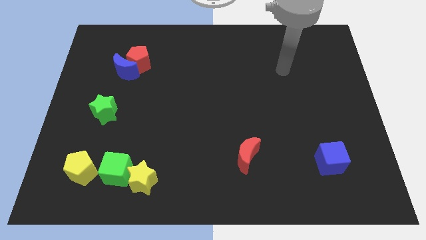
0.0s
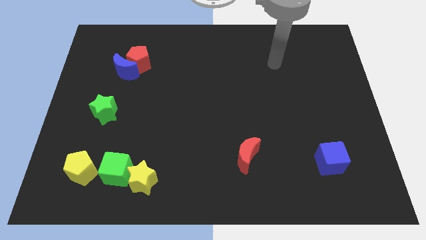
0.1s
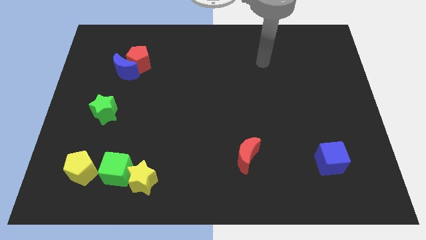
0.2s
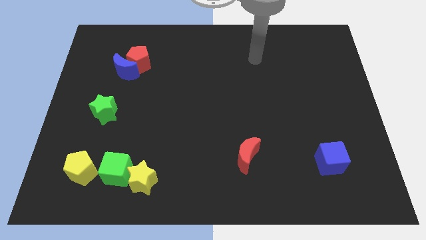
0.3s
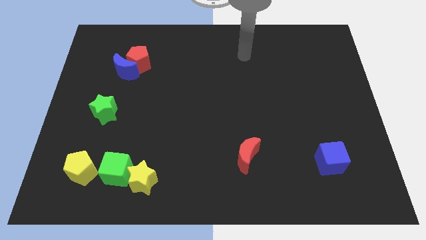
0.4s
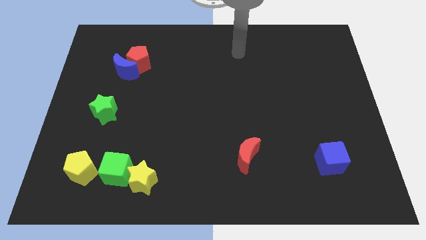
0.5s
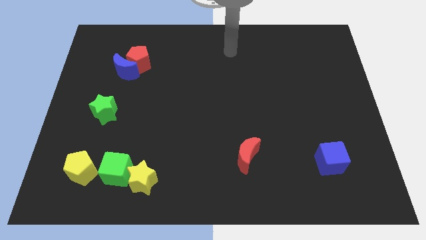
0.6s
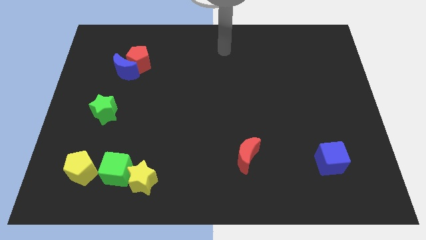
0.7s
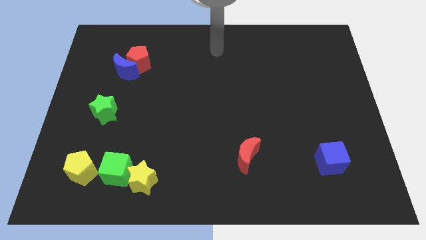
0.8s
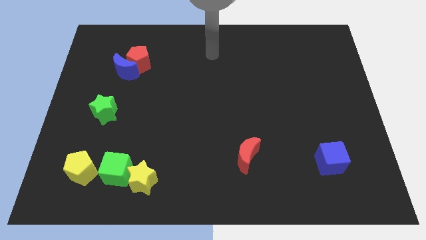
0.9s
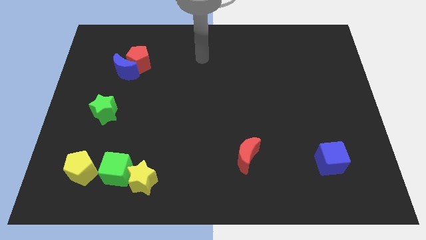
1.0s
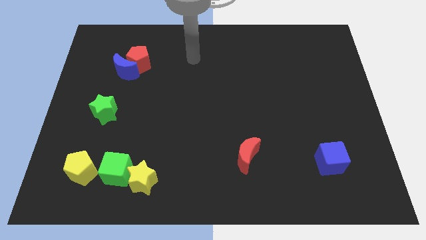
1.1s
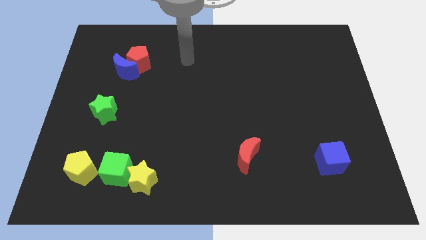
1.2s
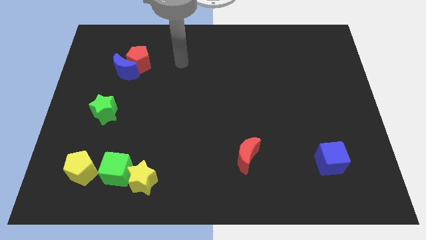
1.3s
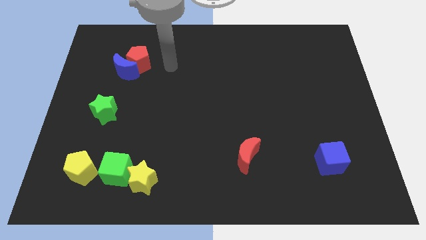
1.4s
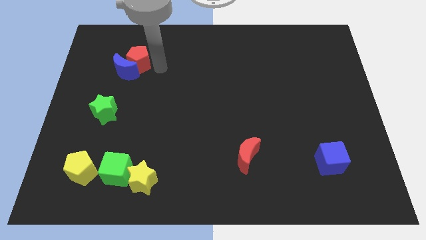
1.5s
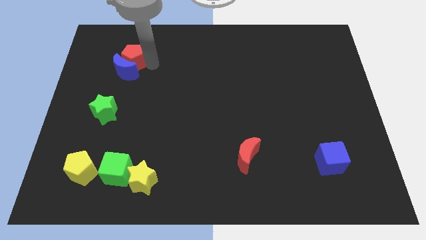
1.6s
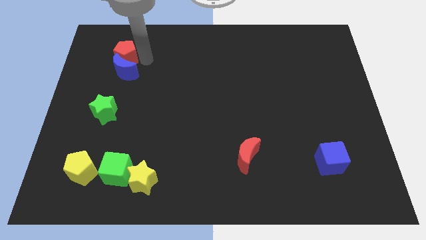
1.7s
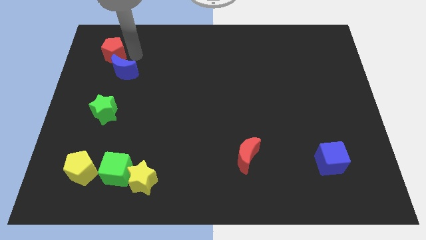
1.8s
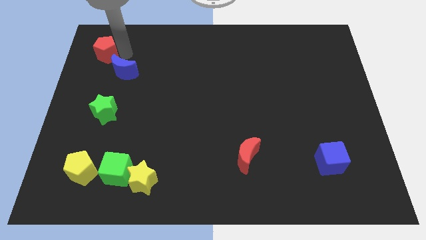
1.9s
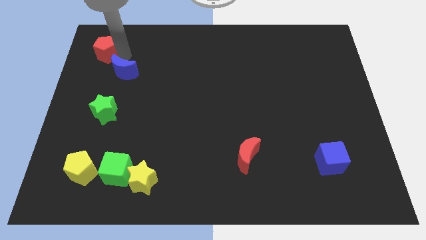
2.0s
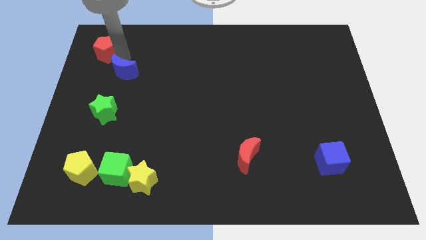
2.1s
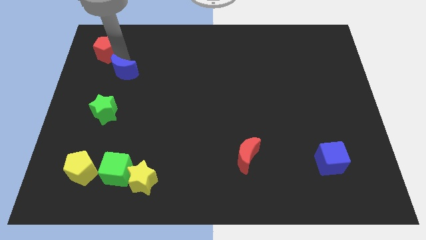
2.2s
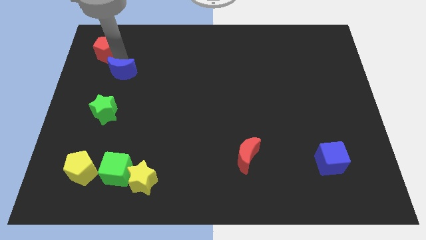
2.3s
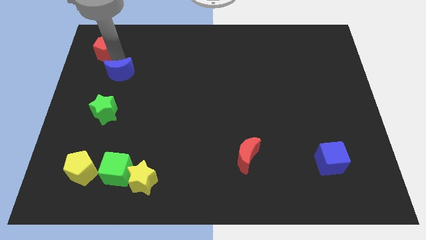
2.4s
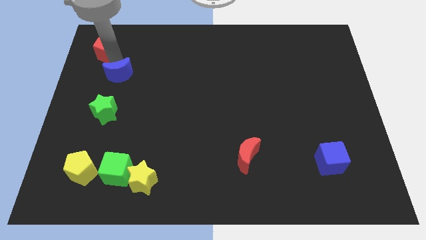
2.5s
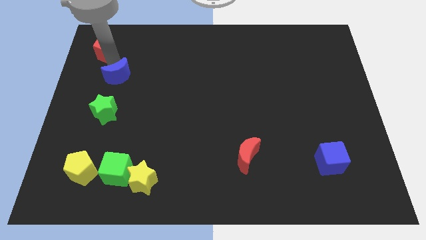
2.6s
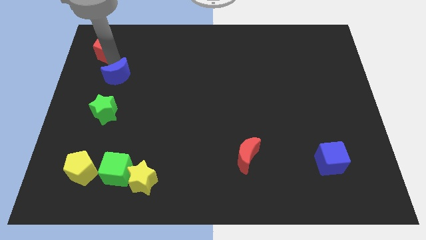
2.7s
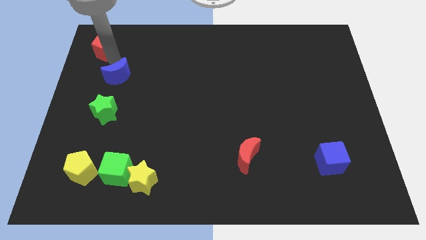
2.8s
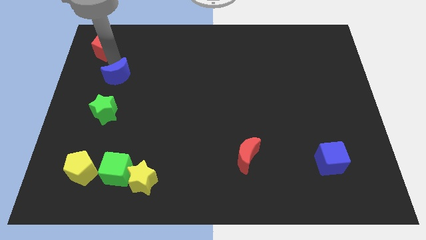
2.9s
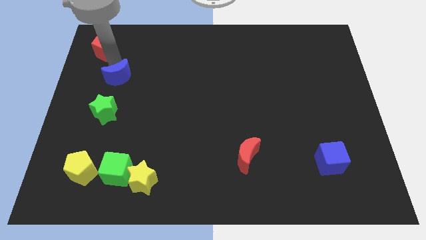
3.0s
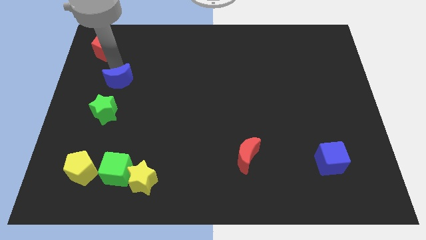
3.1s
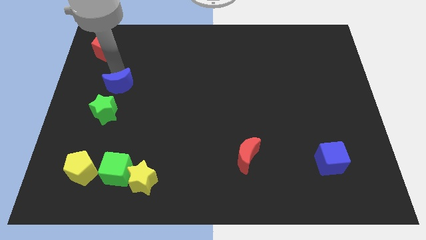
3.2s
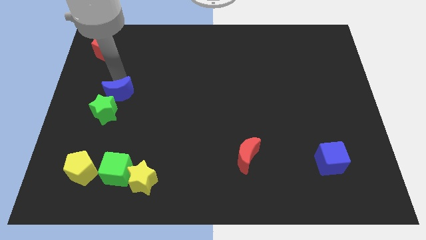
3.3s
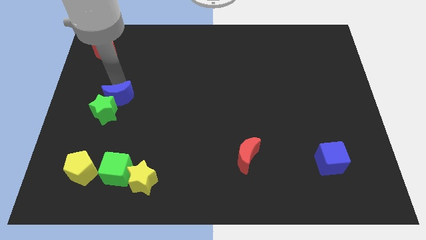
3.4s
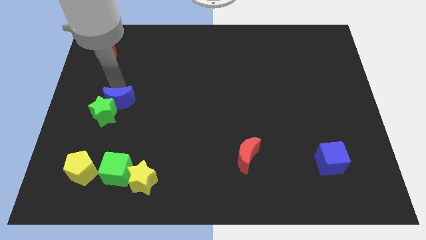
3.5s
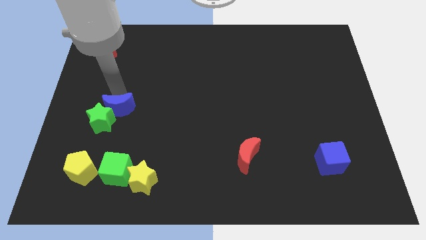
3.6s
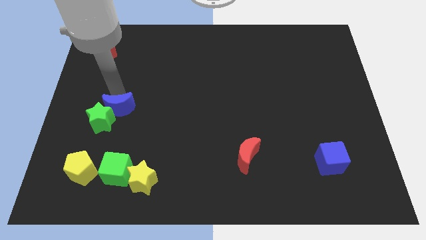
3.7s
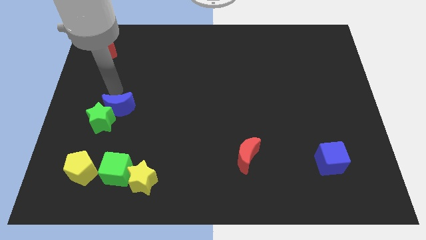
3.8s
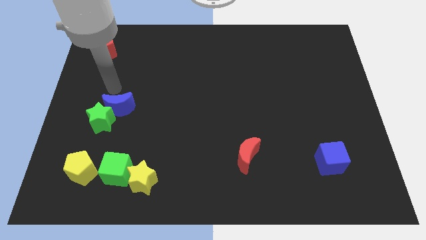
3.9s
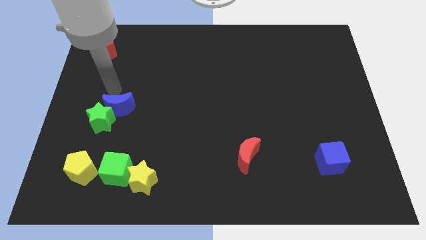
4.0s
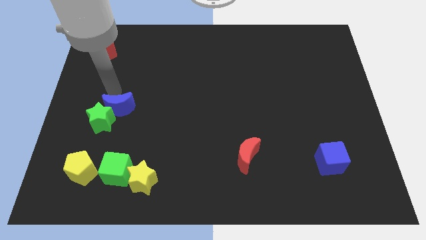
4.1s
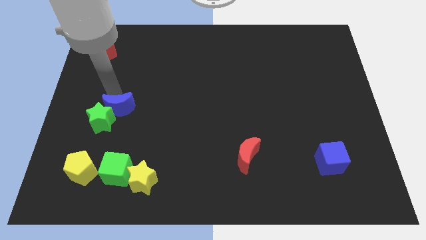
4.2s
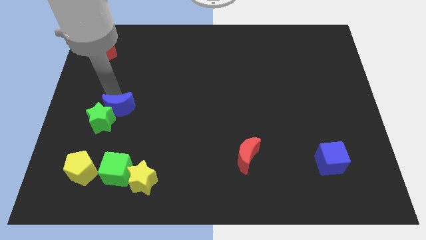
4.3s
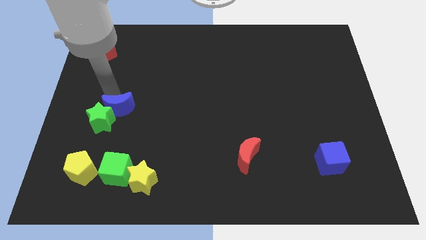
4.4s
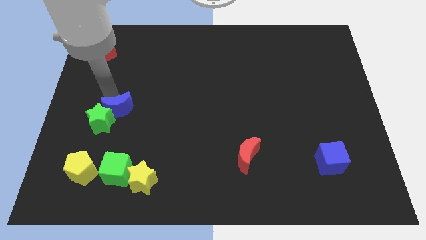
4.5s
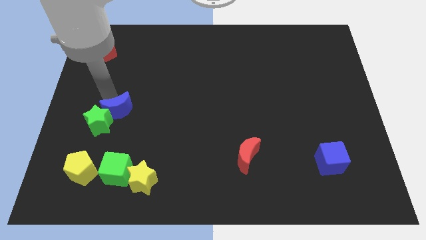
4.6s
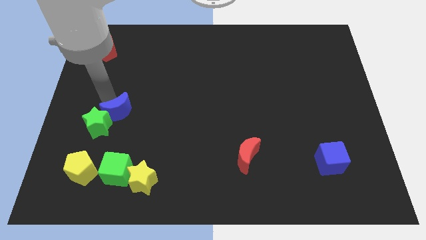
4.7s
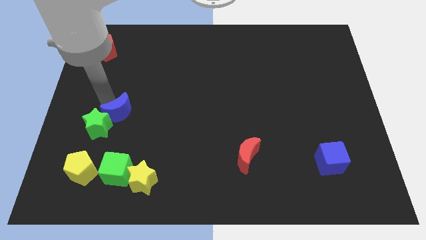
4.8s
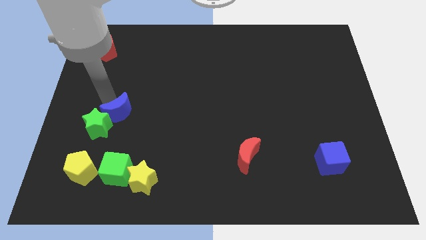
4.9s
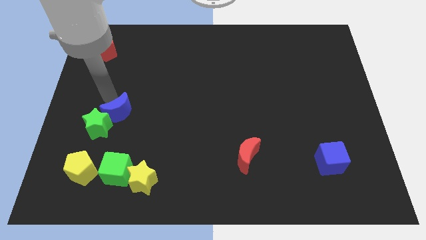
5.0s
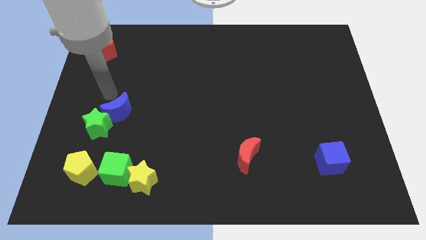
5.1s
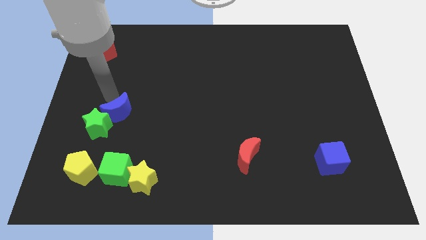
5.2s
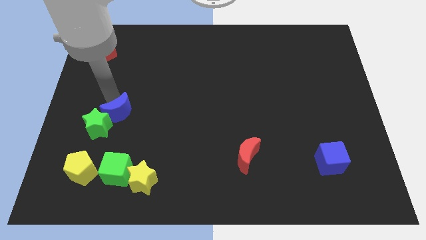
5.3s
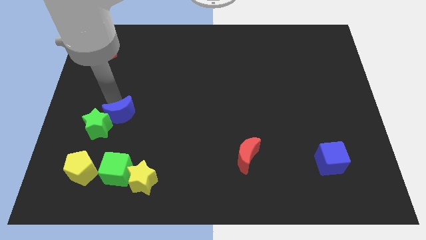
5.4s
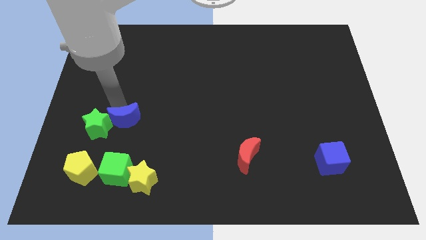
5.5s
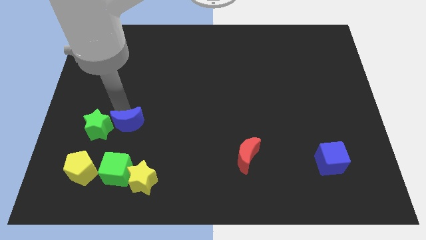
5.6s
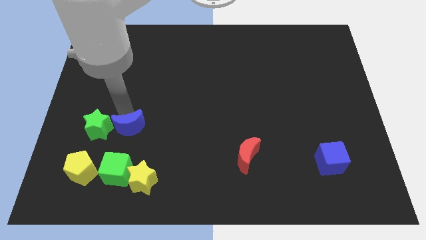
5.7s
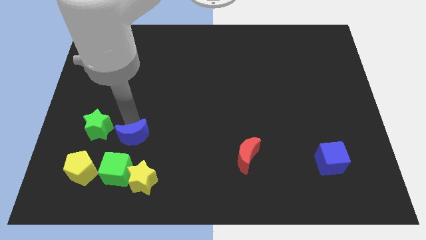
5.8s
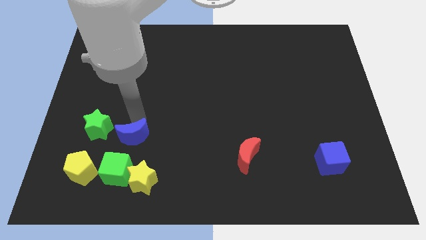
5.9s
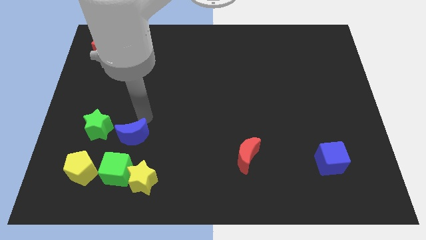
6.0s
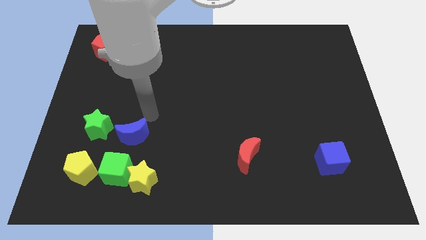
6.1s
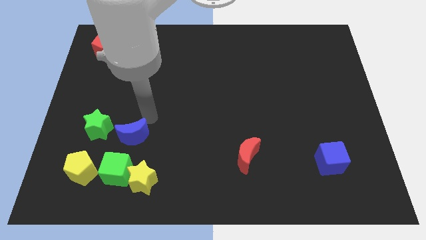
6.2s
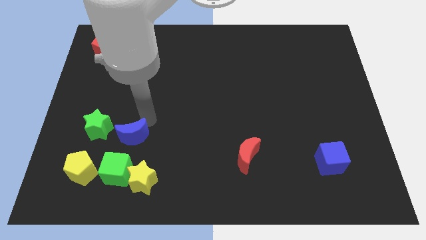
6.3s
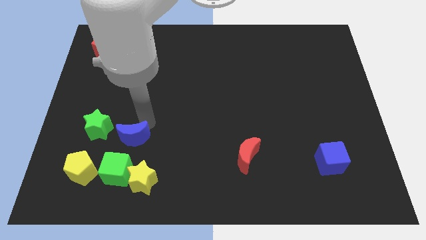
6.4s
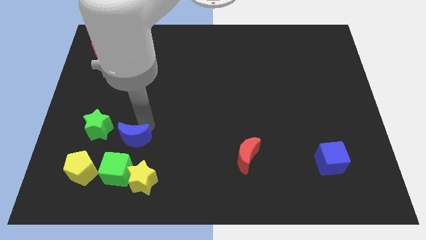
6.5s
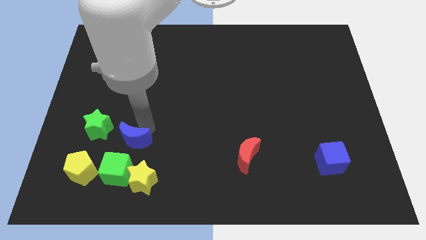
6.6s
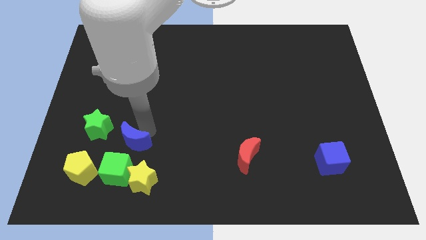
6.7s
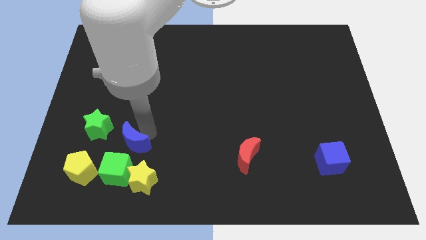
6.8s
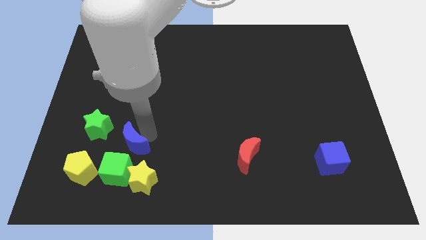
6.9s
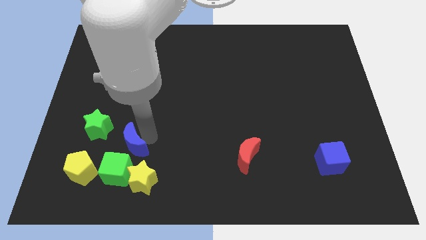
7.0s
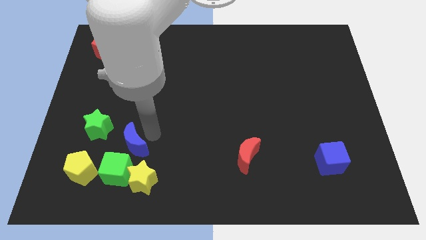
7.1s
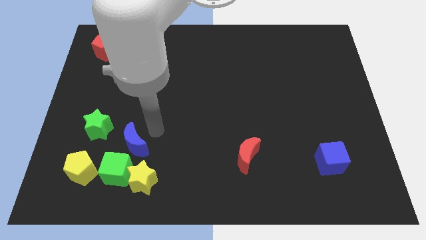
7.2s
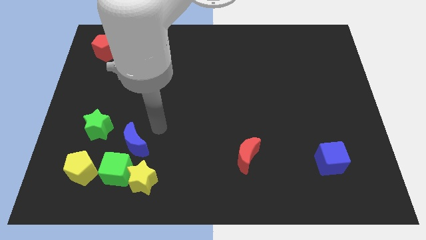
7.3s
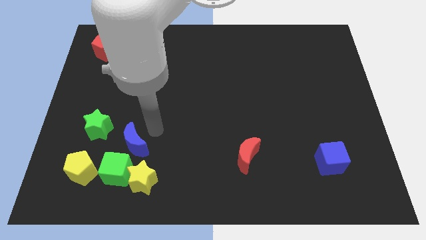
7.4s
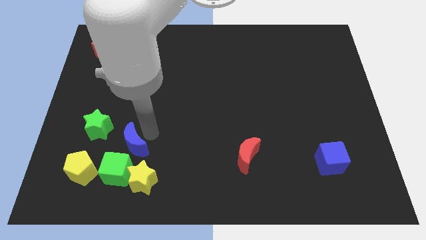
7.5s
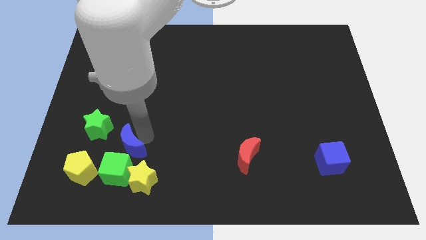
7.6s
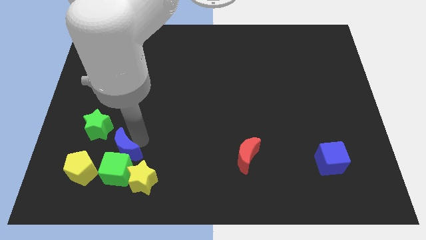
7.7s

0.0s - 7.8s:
slide the blue moon next to the green cube
